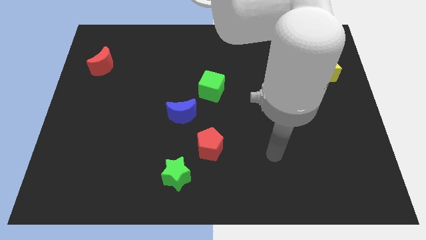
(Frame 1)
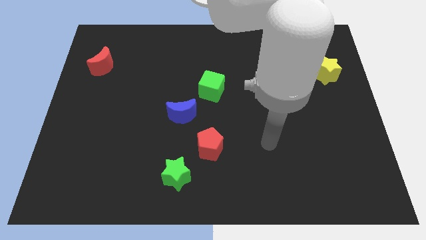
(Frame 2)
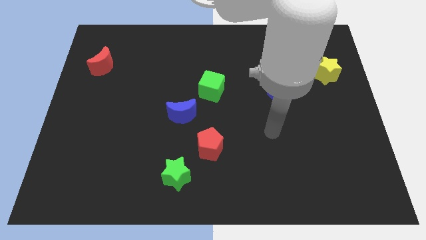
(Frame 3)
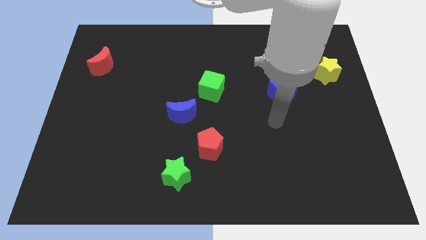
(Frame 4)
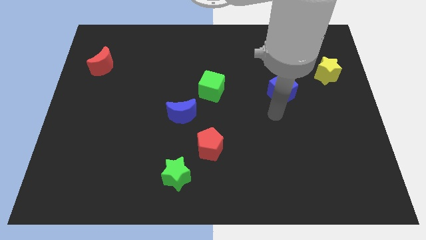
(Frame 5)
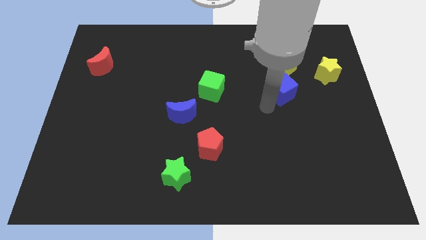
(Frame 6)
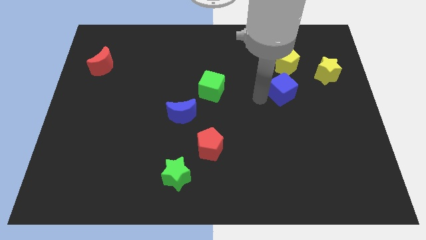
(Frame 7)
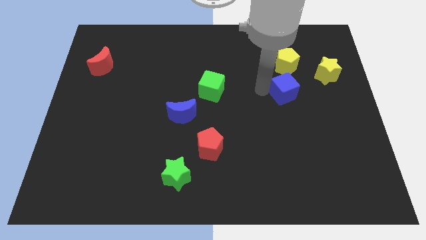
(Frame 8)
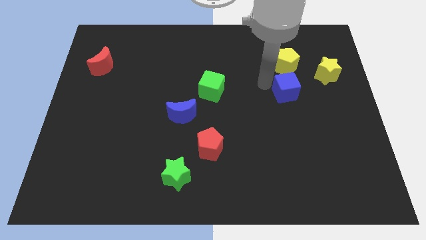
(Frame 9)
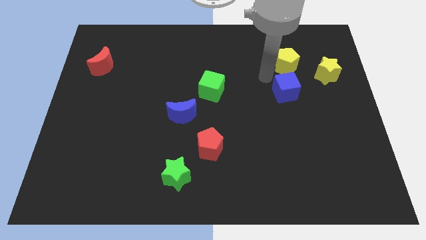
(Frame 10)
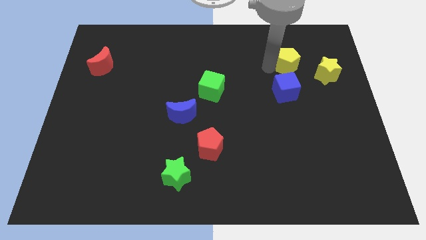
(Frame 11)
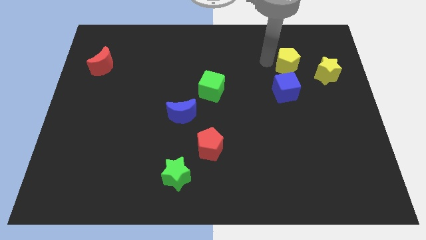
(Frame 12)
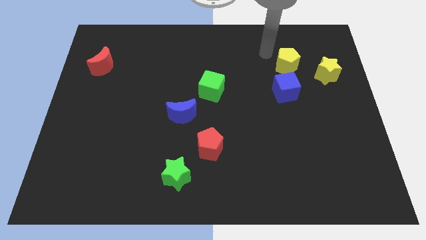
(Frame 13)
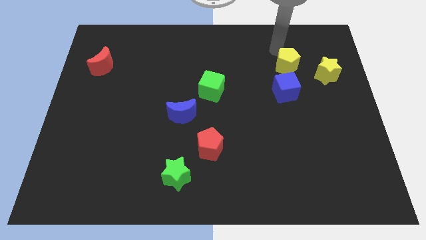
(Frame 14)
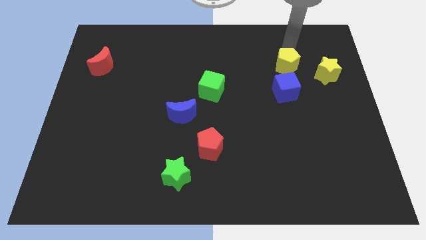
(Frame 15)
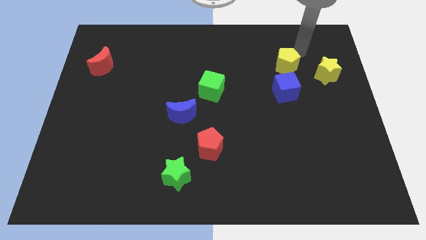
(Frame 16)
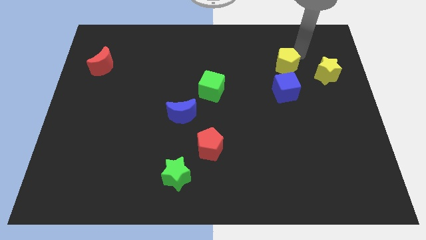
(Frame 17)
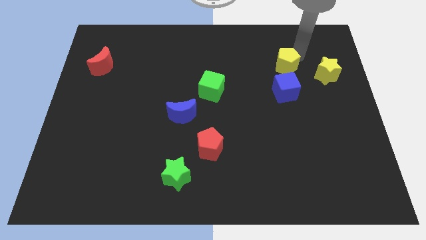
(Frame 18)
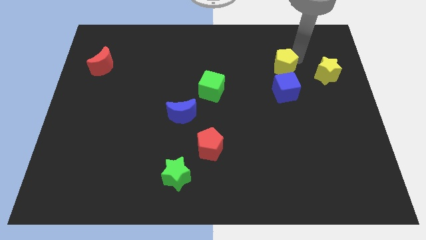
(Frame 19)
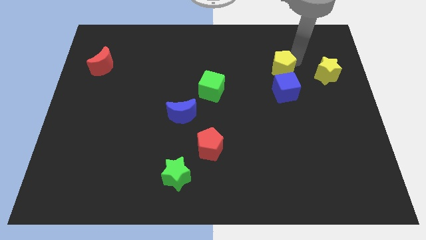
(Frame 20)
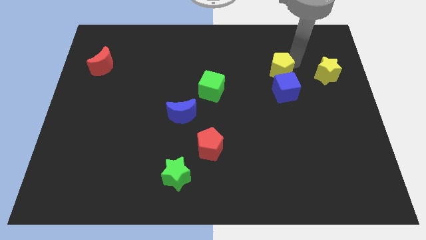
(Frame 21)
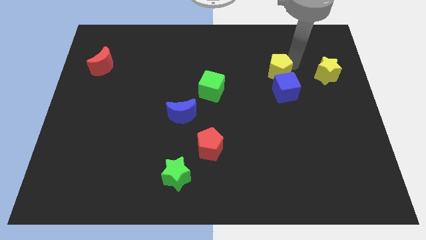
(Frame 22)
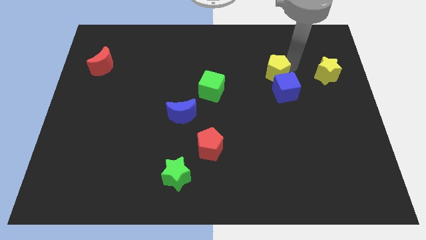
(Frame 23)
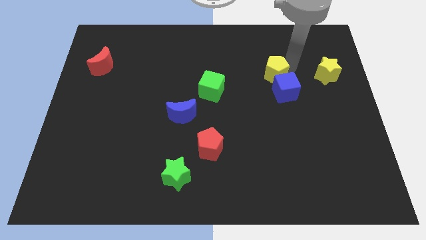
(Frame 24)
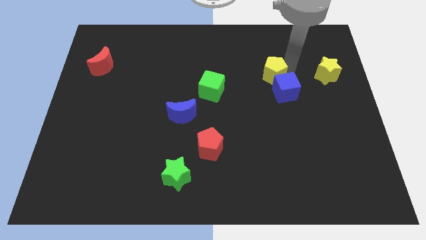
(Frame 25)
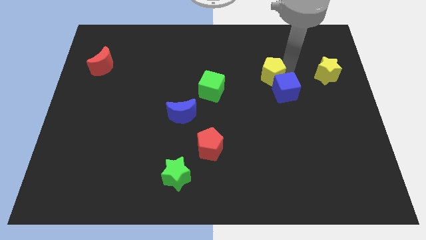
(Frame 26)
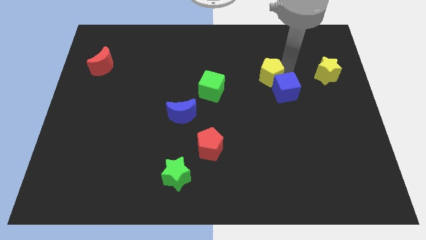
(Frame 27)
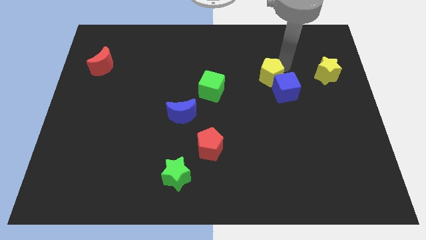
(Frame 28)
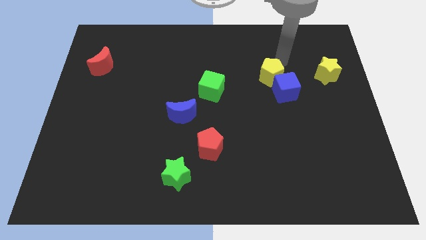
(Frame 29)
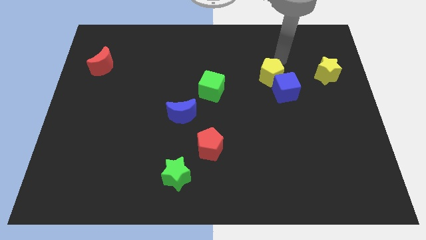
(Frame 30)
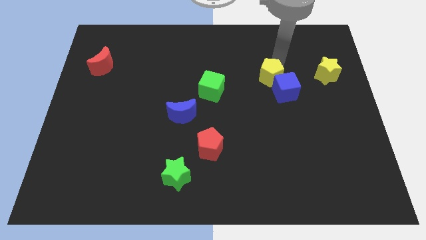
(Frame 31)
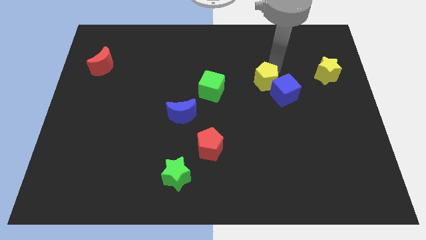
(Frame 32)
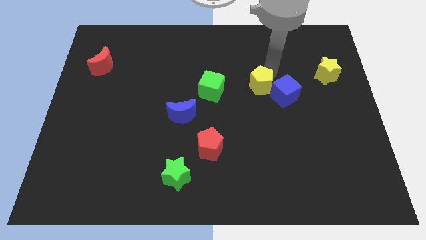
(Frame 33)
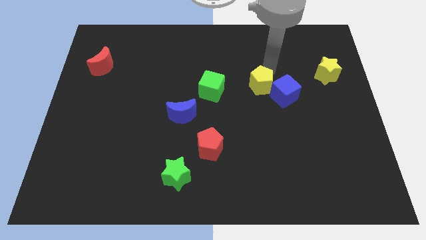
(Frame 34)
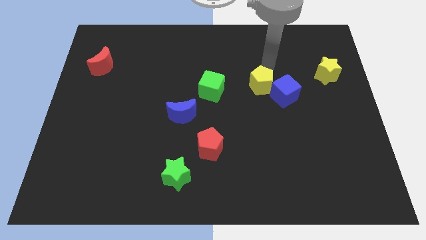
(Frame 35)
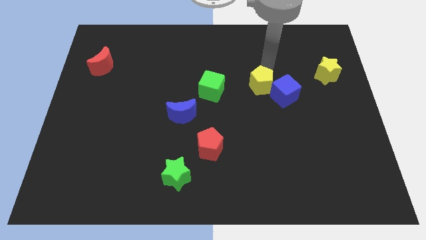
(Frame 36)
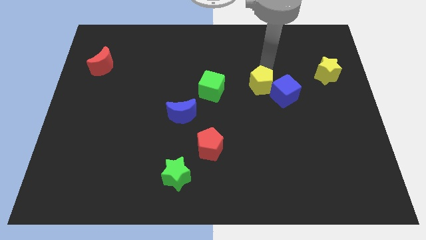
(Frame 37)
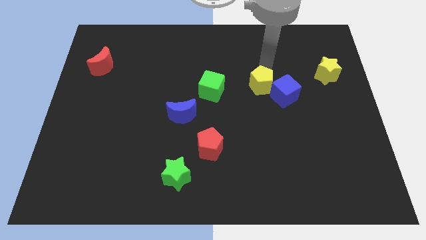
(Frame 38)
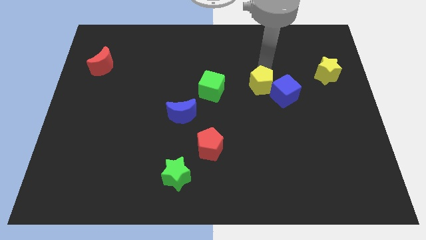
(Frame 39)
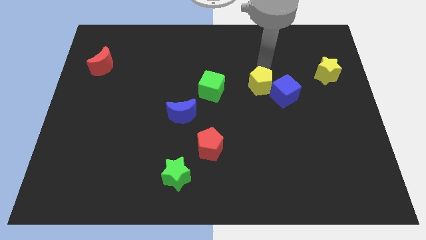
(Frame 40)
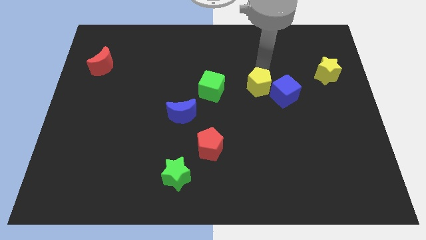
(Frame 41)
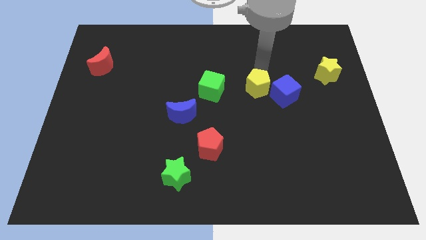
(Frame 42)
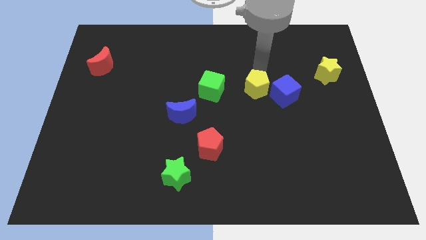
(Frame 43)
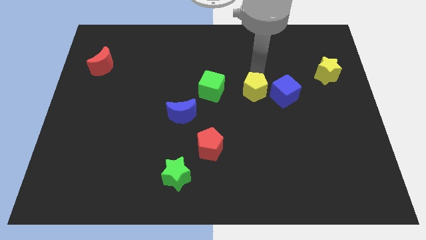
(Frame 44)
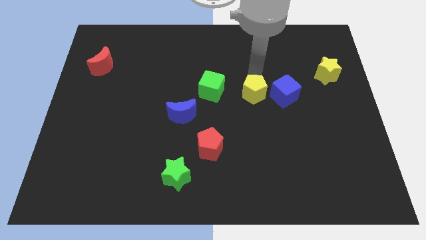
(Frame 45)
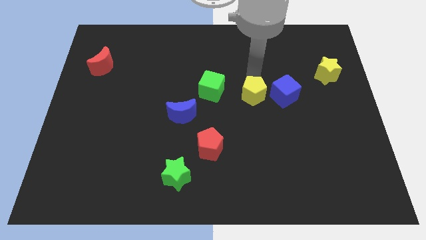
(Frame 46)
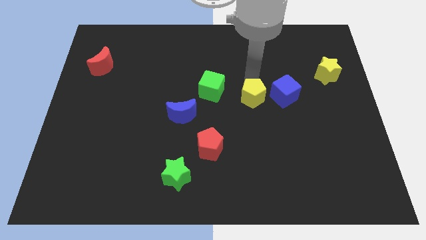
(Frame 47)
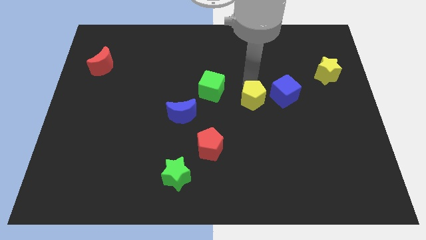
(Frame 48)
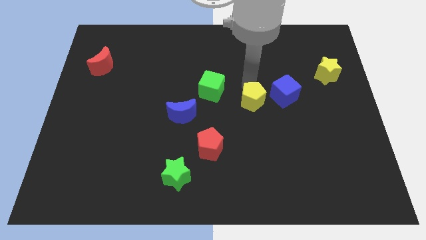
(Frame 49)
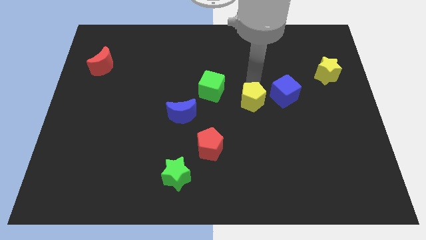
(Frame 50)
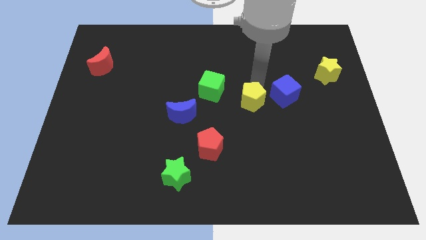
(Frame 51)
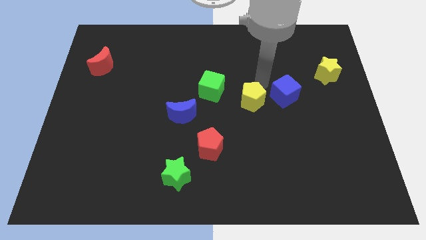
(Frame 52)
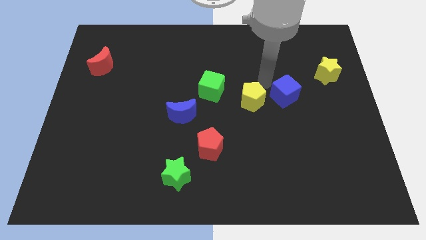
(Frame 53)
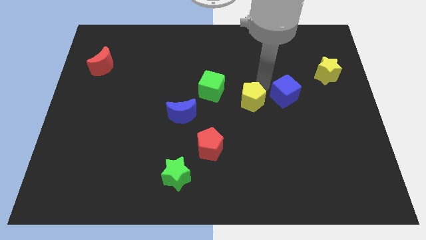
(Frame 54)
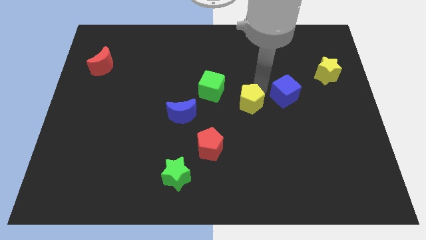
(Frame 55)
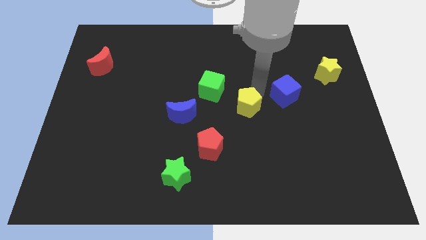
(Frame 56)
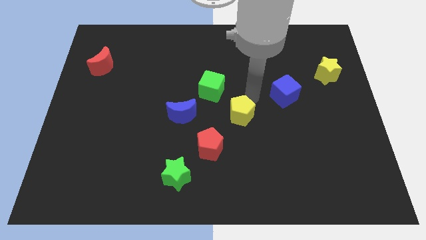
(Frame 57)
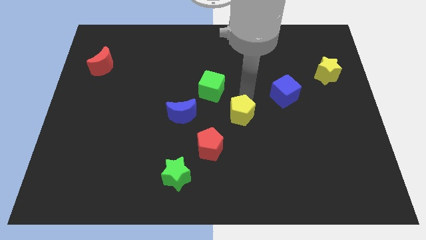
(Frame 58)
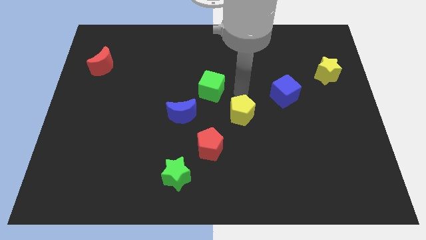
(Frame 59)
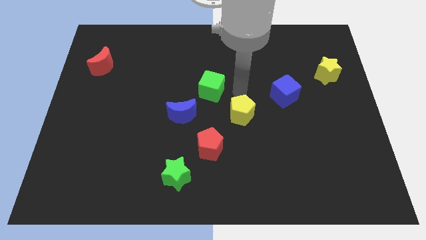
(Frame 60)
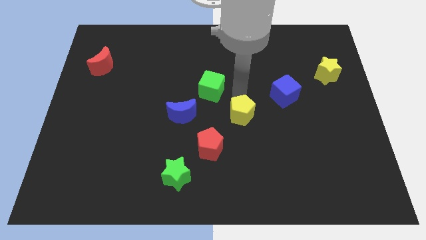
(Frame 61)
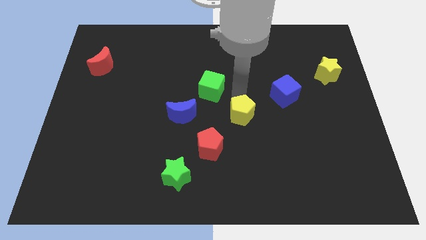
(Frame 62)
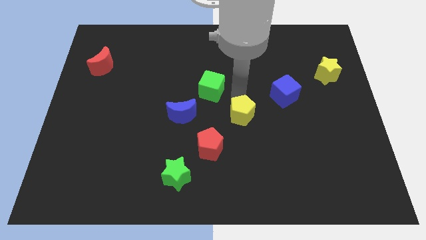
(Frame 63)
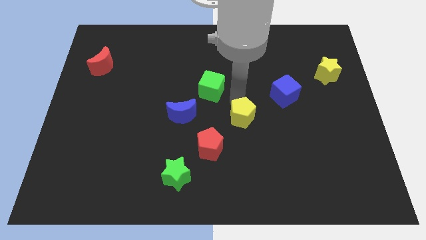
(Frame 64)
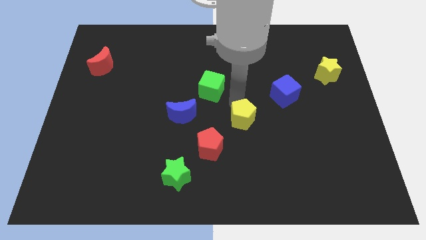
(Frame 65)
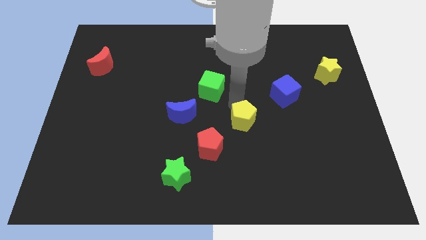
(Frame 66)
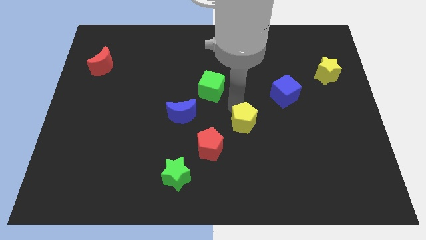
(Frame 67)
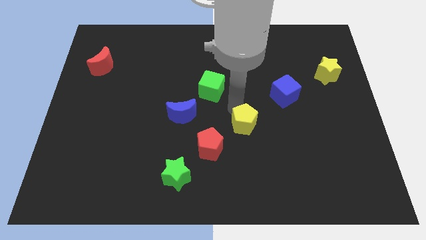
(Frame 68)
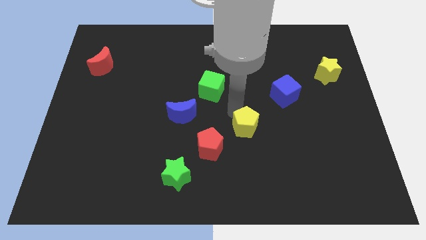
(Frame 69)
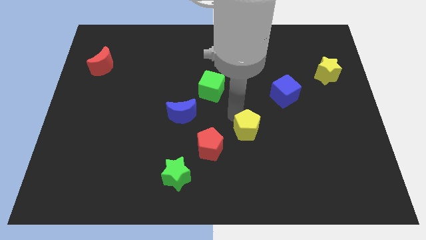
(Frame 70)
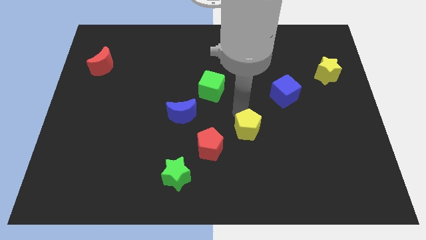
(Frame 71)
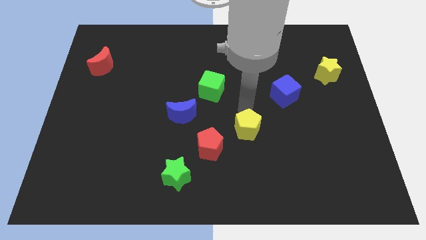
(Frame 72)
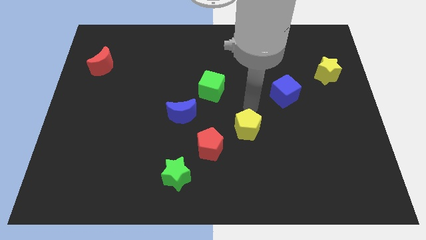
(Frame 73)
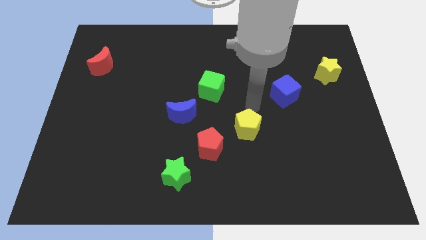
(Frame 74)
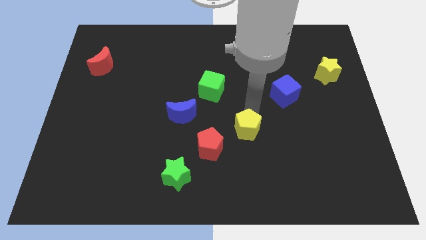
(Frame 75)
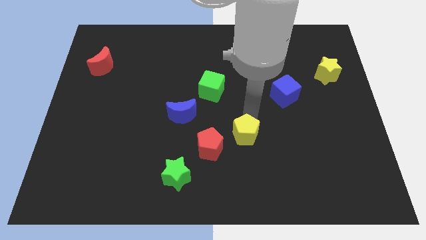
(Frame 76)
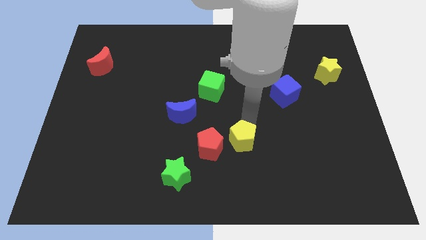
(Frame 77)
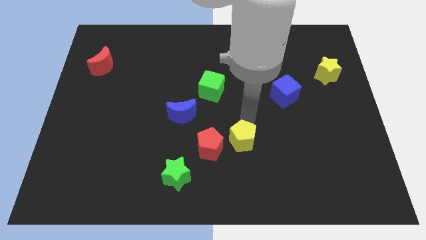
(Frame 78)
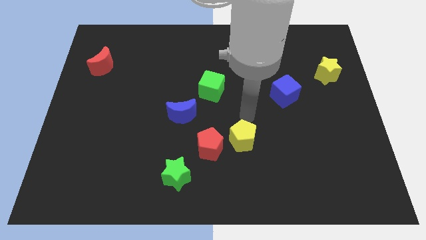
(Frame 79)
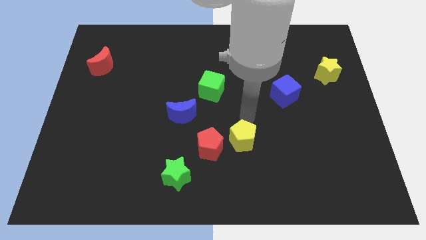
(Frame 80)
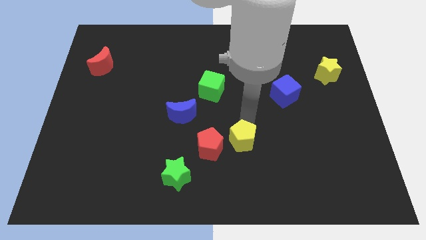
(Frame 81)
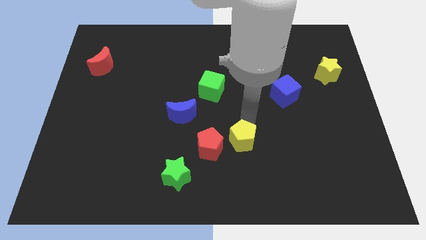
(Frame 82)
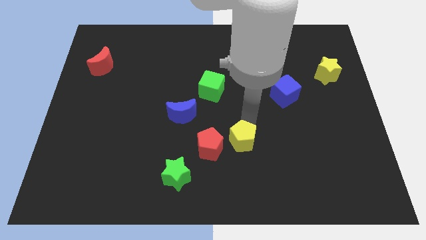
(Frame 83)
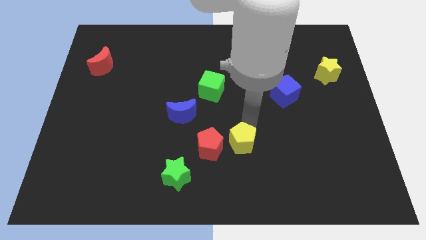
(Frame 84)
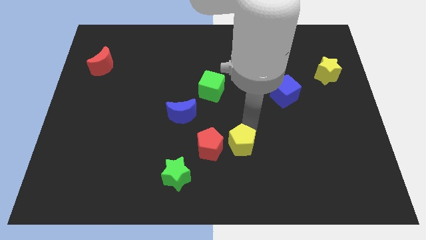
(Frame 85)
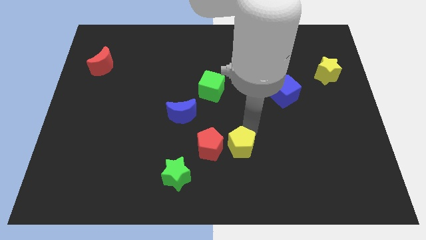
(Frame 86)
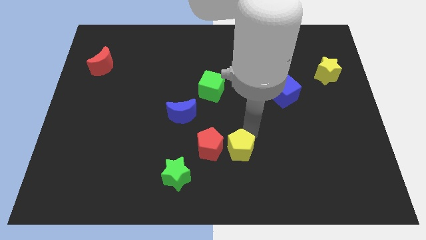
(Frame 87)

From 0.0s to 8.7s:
push the yellow pentagon diagonally down and to the right of the red pentagon
